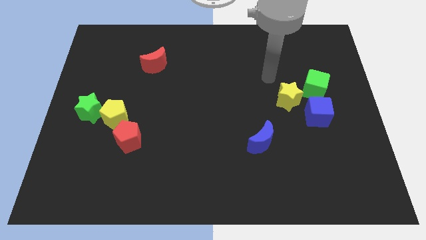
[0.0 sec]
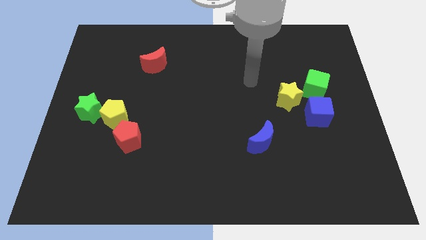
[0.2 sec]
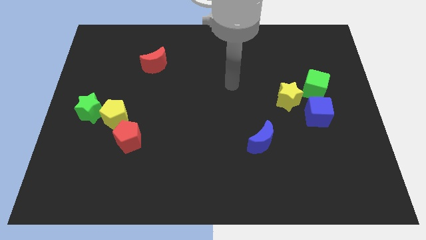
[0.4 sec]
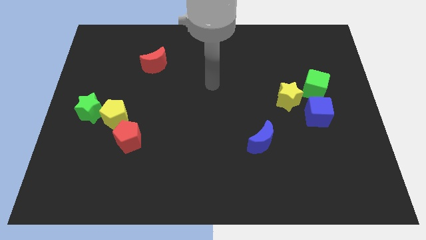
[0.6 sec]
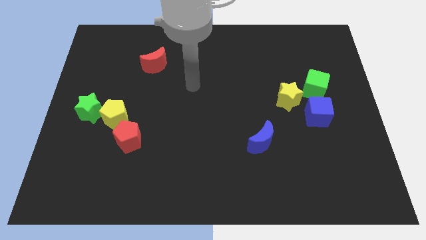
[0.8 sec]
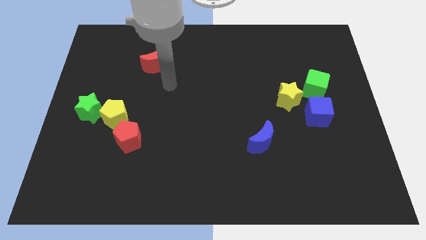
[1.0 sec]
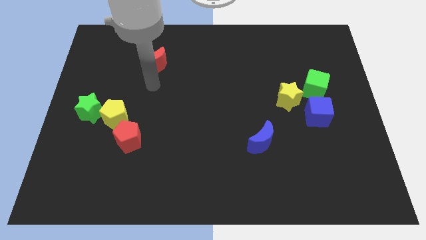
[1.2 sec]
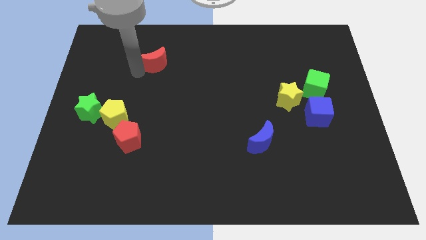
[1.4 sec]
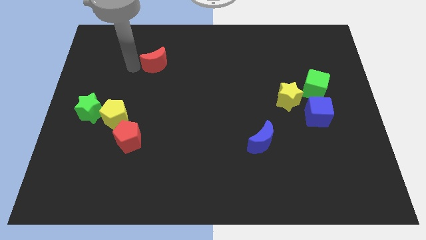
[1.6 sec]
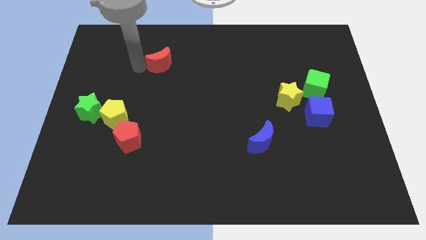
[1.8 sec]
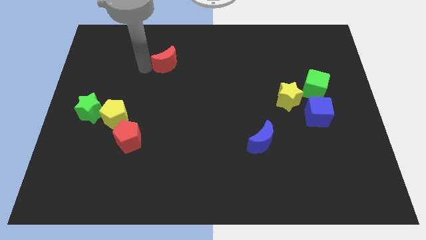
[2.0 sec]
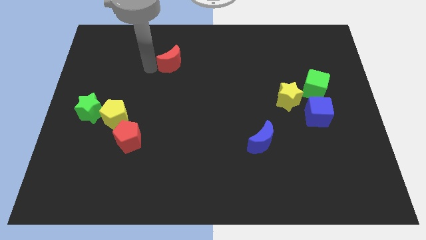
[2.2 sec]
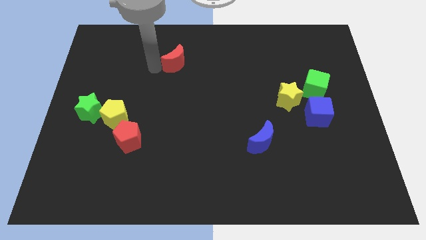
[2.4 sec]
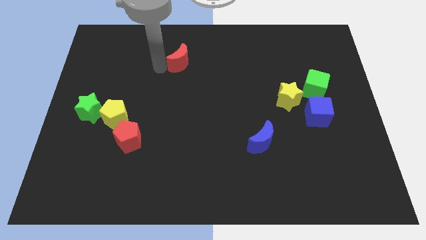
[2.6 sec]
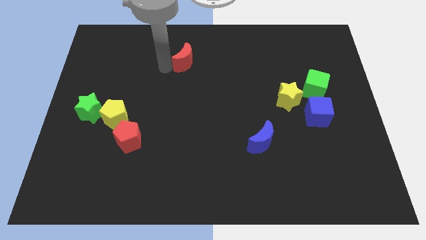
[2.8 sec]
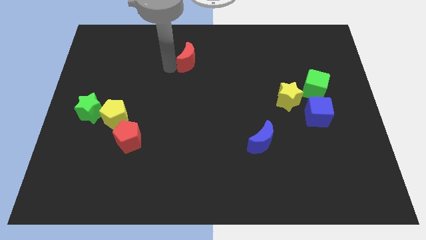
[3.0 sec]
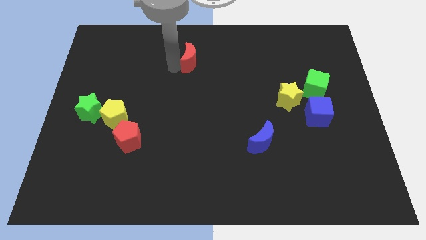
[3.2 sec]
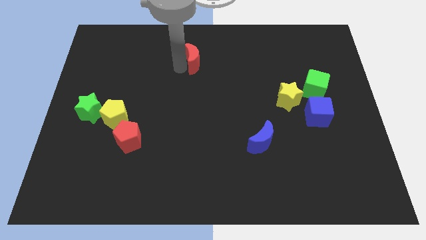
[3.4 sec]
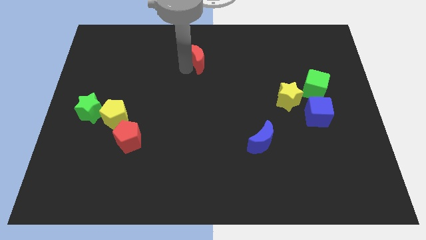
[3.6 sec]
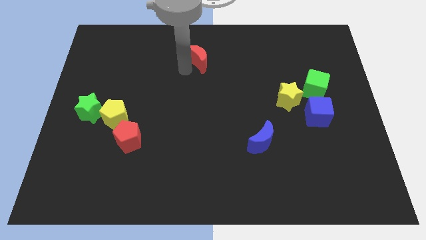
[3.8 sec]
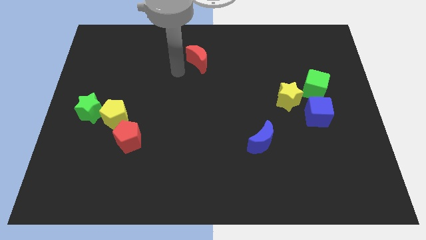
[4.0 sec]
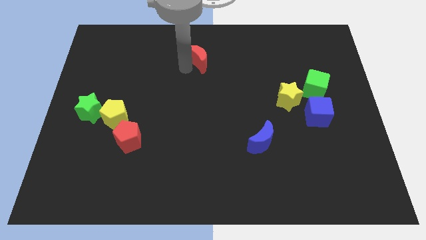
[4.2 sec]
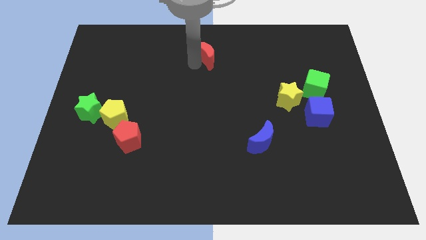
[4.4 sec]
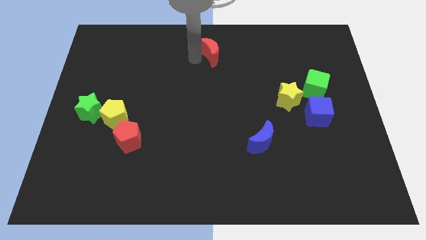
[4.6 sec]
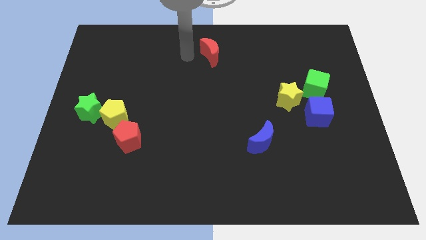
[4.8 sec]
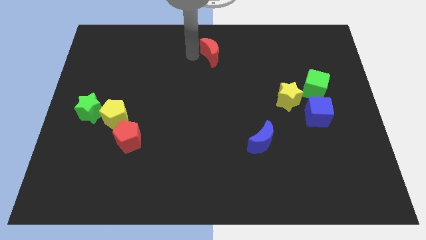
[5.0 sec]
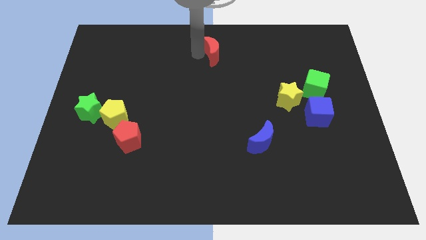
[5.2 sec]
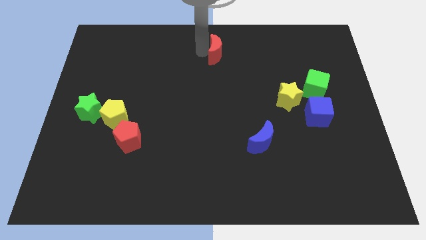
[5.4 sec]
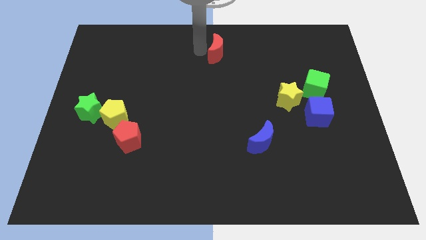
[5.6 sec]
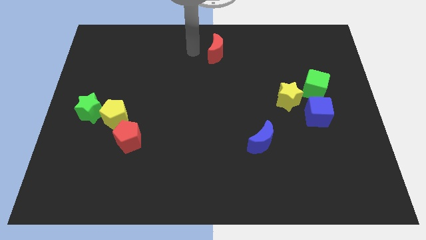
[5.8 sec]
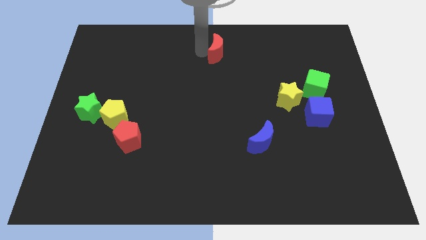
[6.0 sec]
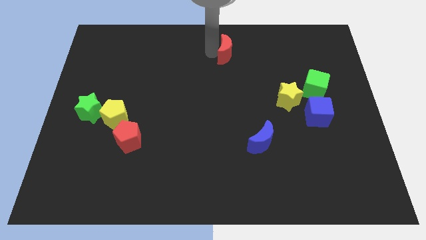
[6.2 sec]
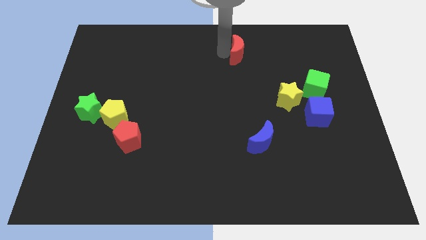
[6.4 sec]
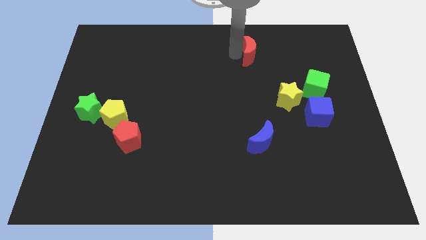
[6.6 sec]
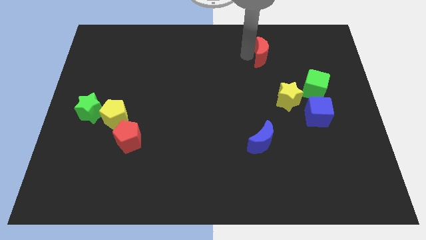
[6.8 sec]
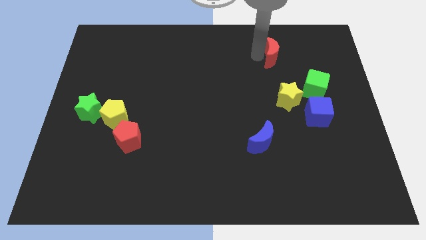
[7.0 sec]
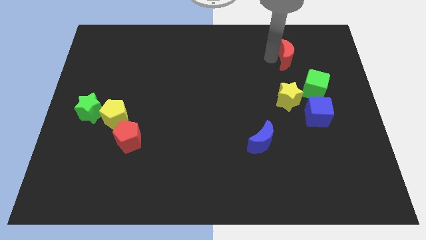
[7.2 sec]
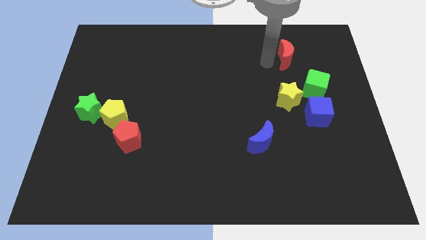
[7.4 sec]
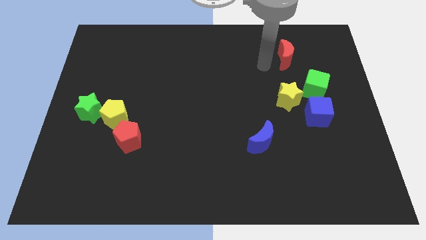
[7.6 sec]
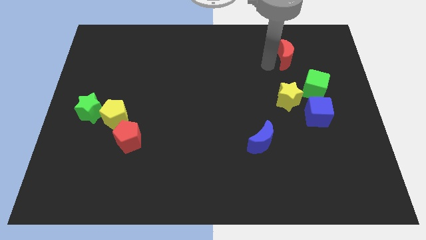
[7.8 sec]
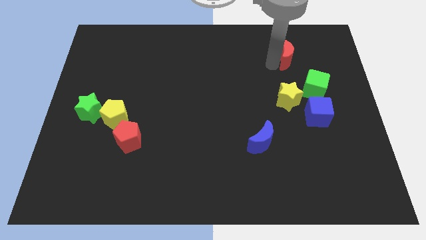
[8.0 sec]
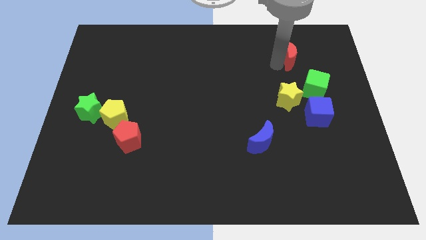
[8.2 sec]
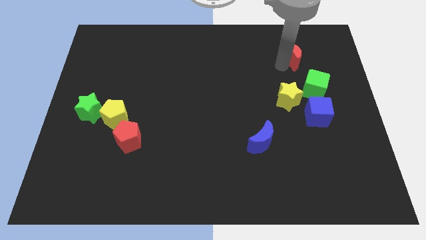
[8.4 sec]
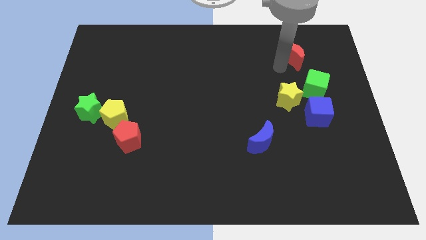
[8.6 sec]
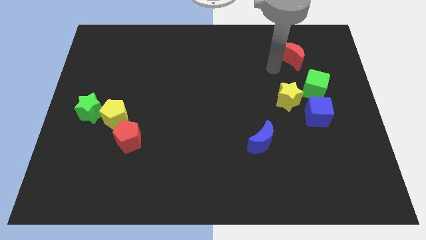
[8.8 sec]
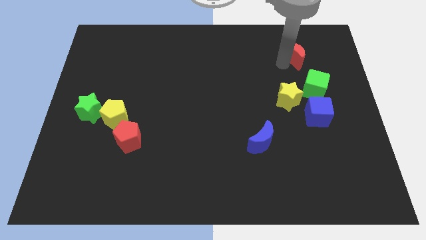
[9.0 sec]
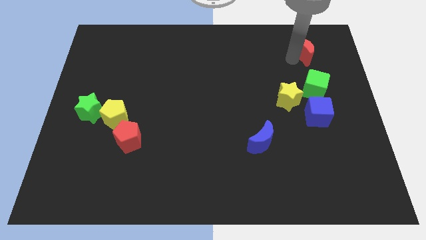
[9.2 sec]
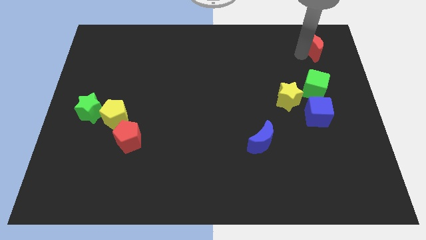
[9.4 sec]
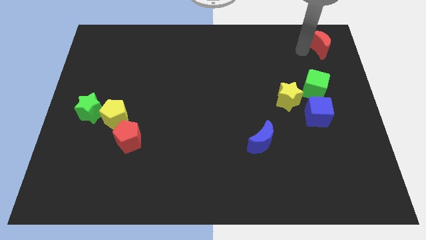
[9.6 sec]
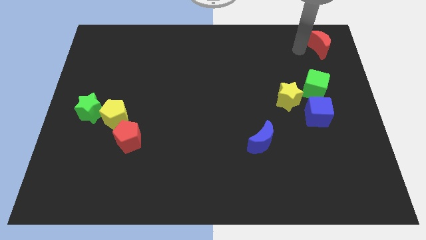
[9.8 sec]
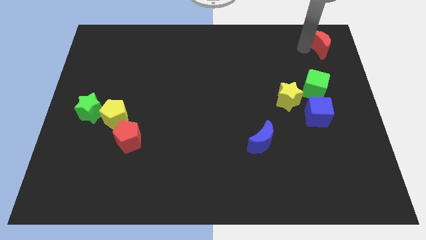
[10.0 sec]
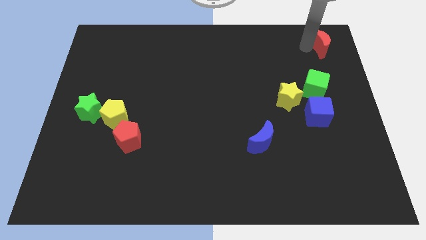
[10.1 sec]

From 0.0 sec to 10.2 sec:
move the red moon to the top right corner
